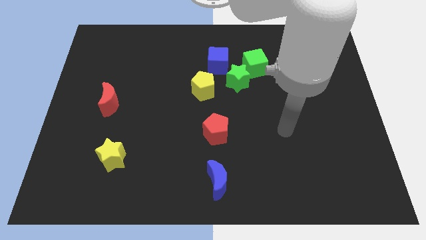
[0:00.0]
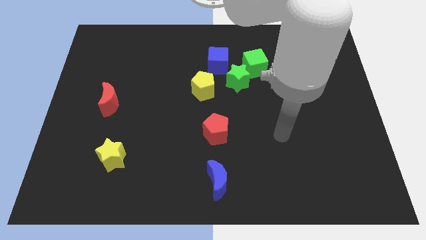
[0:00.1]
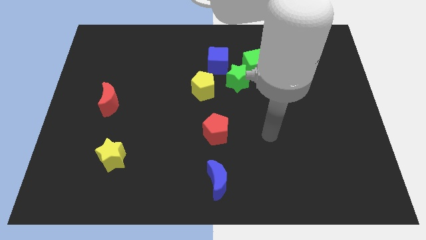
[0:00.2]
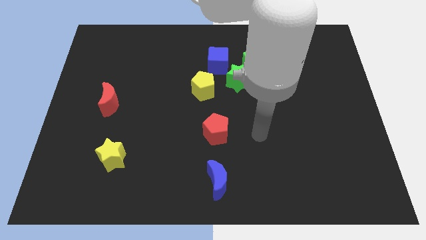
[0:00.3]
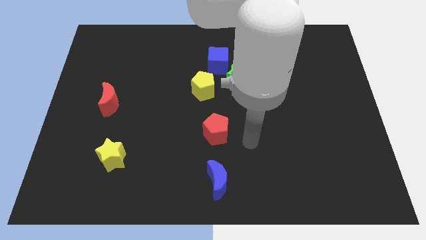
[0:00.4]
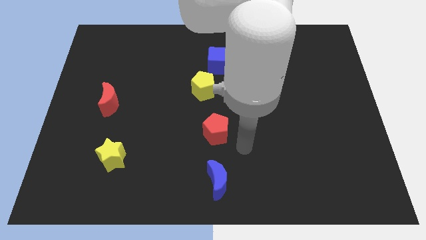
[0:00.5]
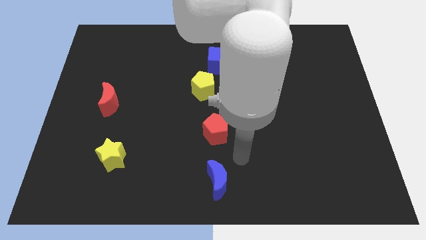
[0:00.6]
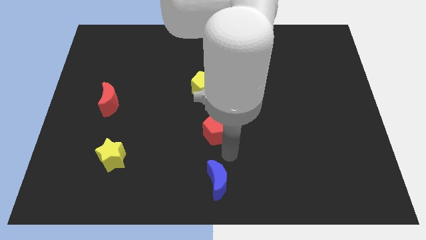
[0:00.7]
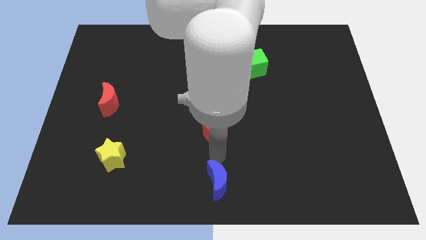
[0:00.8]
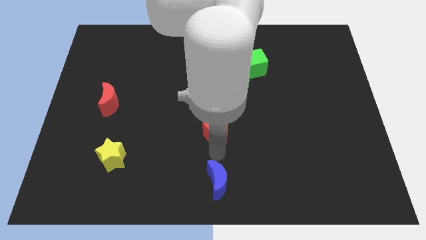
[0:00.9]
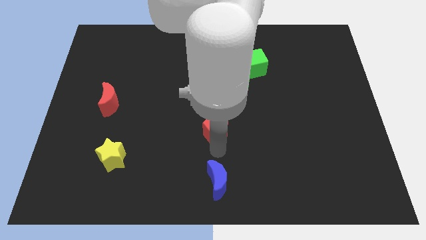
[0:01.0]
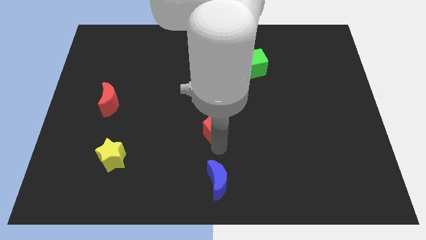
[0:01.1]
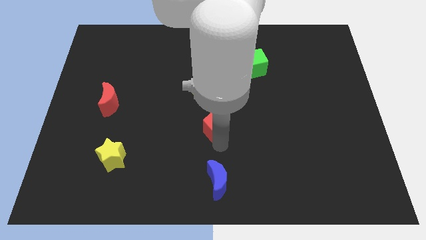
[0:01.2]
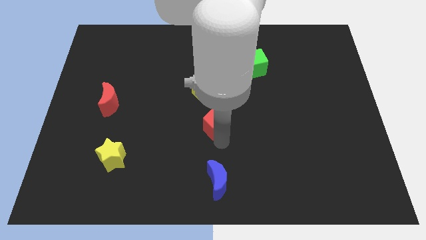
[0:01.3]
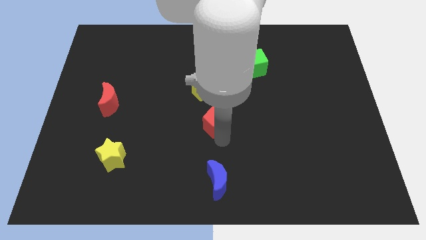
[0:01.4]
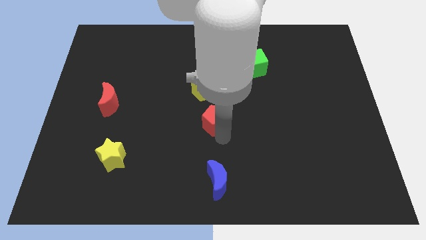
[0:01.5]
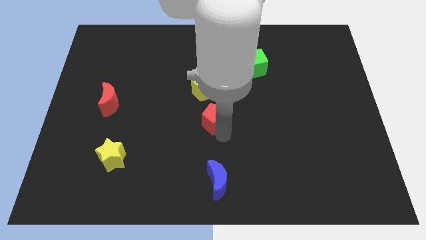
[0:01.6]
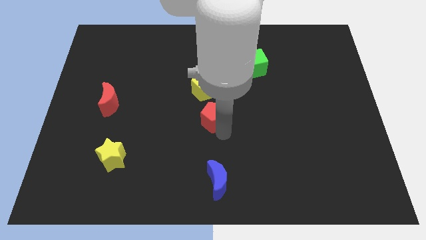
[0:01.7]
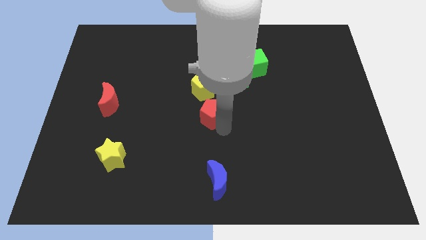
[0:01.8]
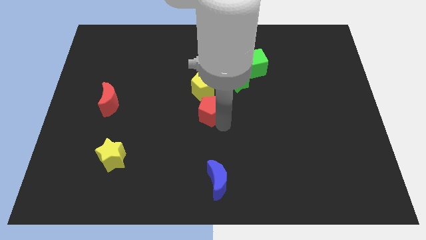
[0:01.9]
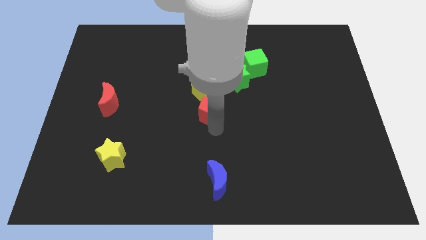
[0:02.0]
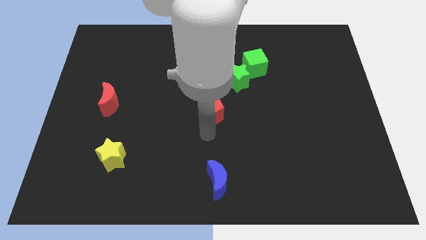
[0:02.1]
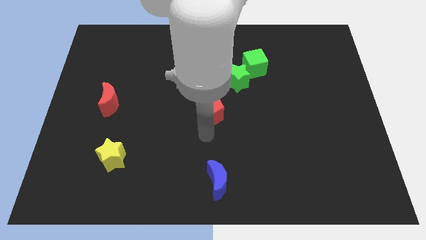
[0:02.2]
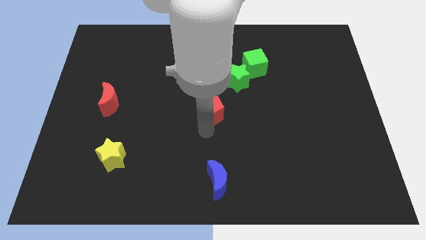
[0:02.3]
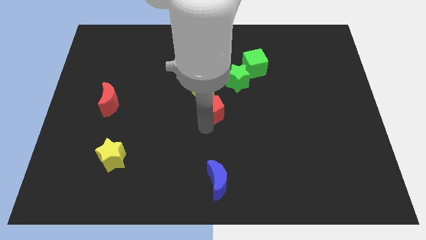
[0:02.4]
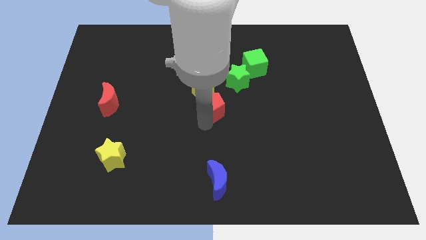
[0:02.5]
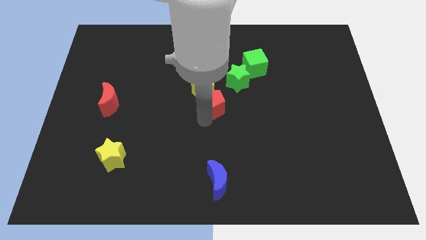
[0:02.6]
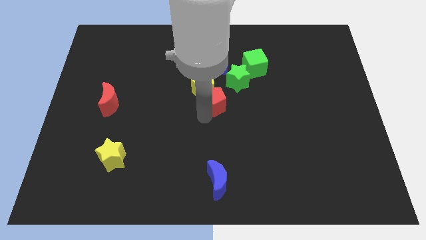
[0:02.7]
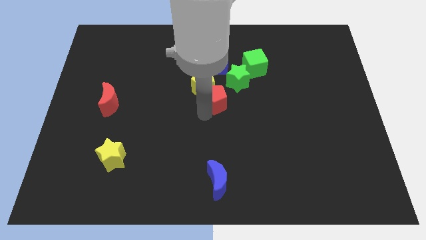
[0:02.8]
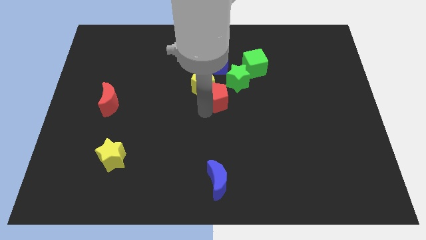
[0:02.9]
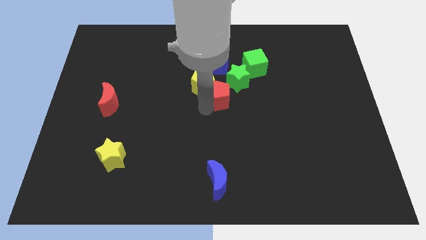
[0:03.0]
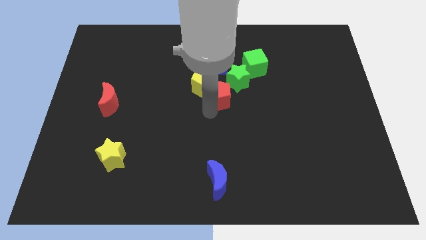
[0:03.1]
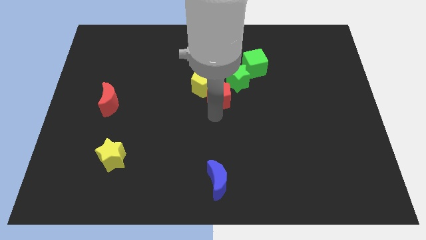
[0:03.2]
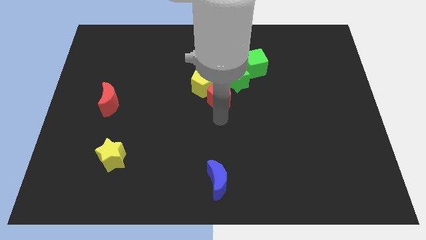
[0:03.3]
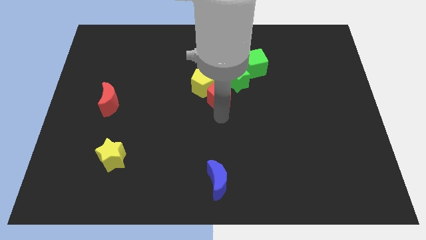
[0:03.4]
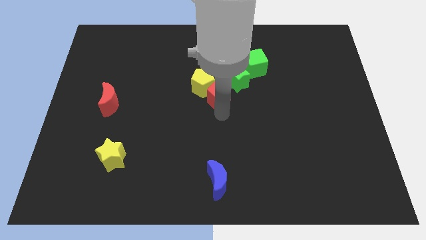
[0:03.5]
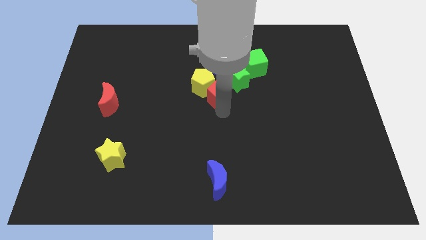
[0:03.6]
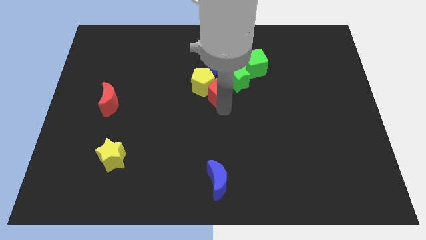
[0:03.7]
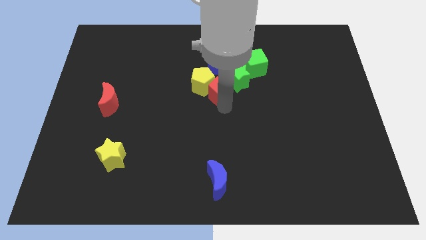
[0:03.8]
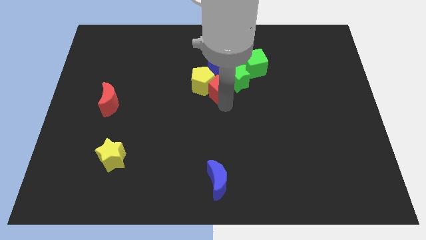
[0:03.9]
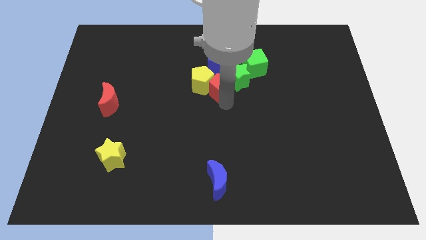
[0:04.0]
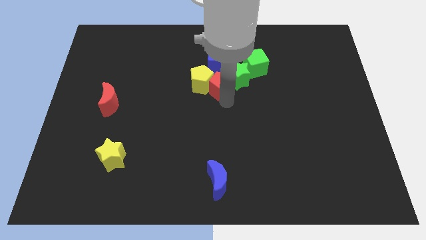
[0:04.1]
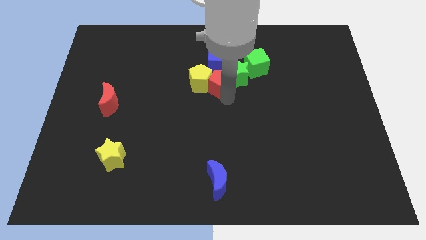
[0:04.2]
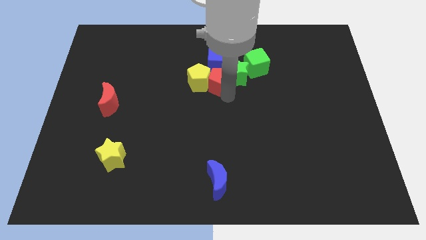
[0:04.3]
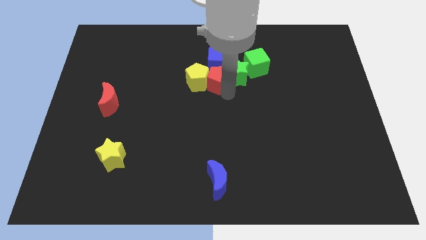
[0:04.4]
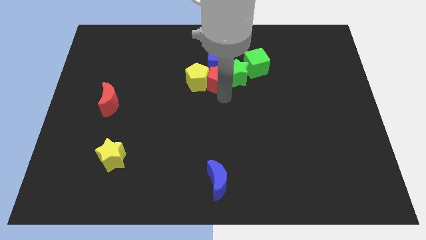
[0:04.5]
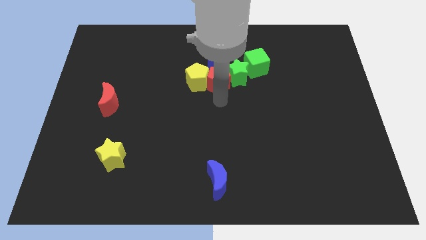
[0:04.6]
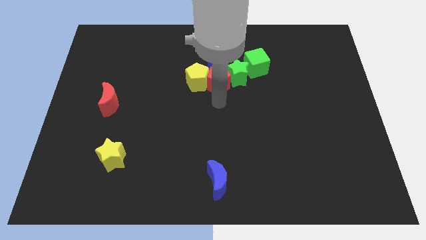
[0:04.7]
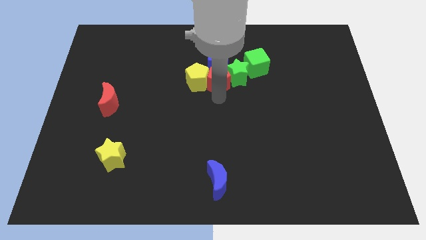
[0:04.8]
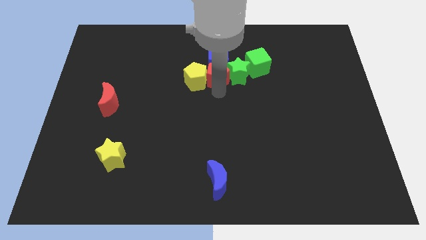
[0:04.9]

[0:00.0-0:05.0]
put the red pentagon close to the blue cube

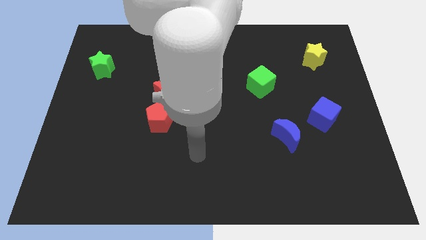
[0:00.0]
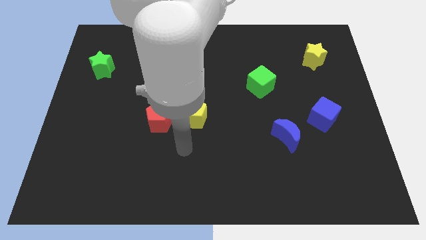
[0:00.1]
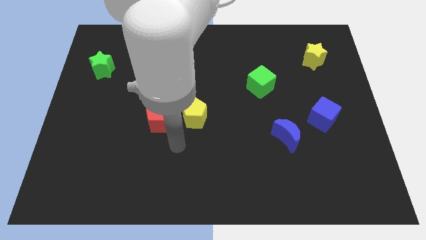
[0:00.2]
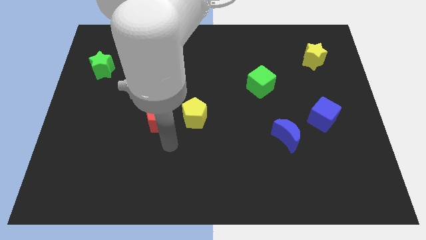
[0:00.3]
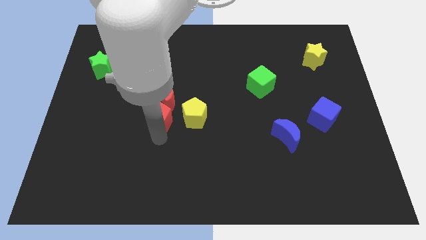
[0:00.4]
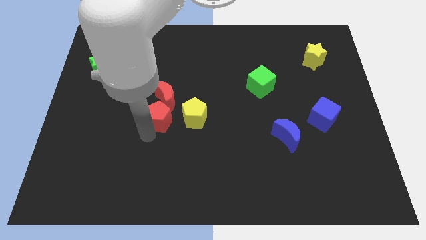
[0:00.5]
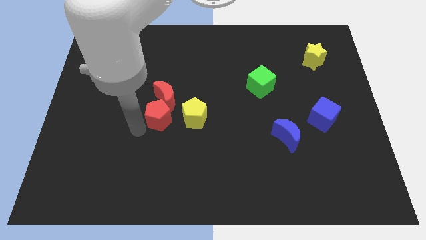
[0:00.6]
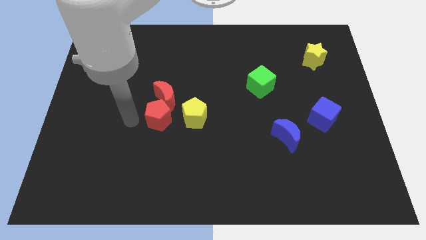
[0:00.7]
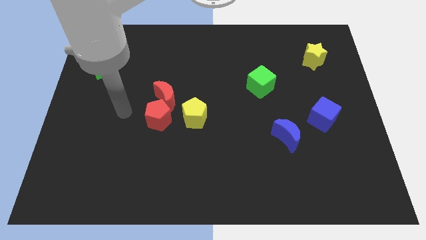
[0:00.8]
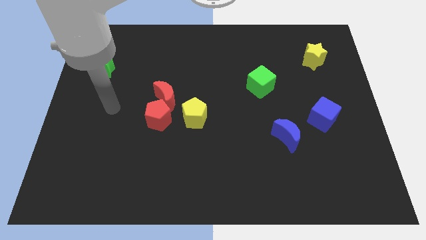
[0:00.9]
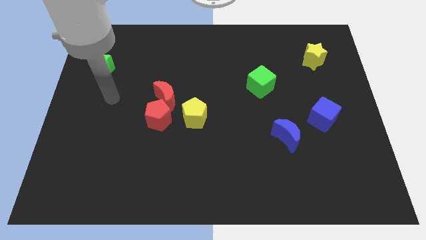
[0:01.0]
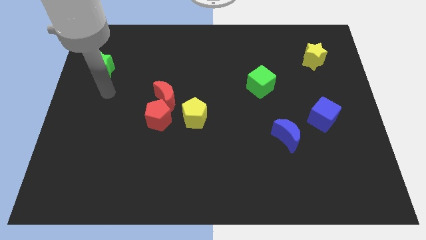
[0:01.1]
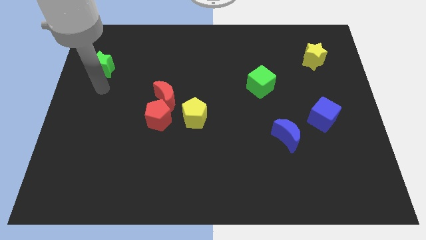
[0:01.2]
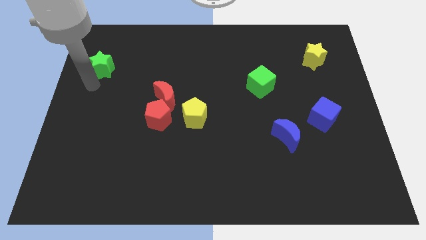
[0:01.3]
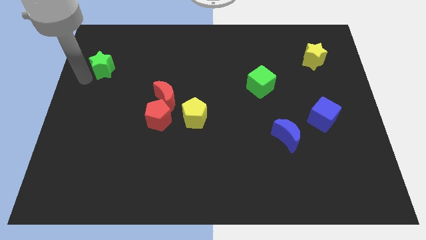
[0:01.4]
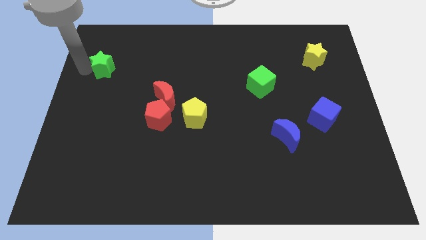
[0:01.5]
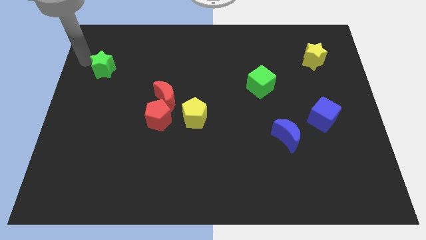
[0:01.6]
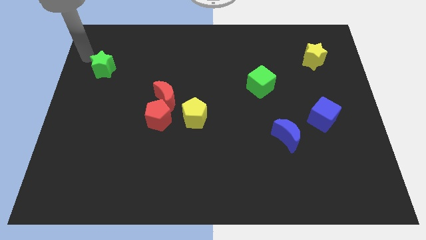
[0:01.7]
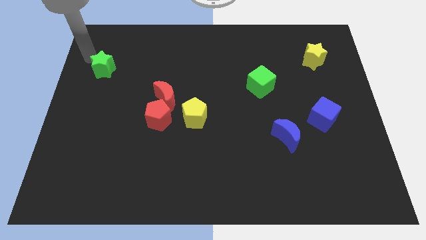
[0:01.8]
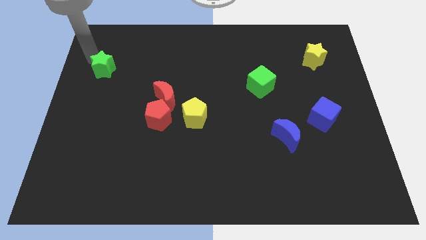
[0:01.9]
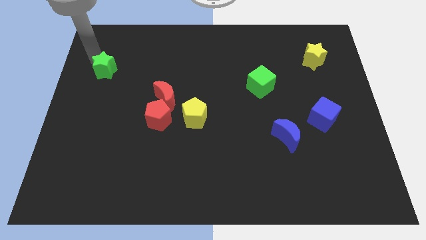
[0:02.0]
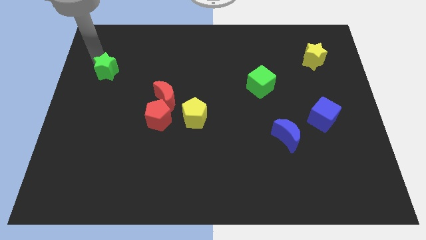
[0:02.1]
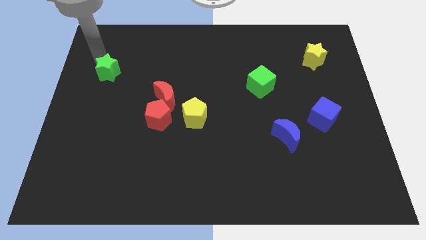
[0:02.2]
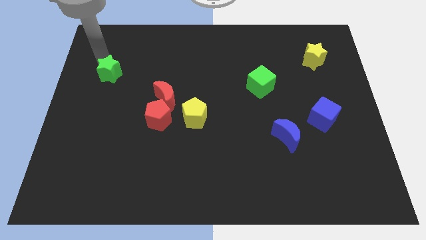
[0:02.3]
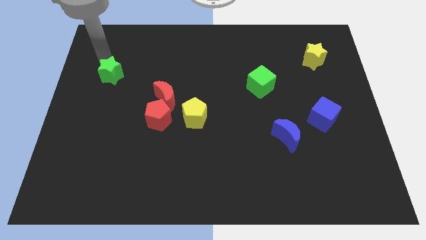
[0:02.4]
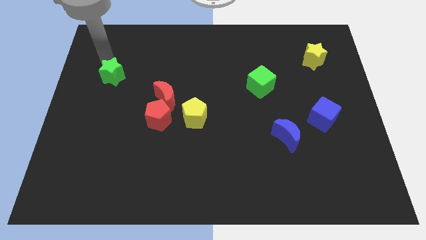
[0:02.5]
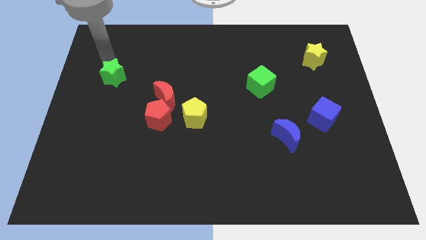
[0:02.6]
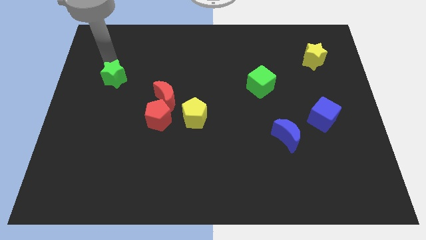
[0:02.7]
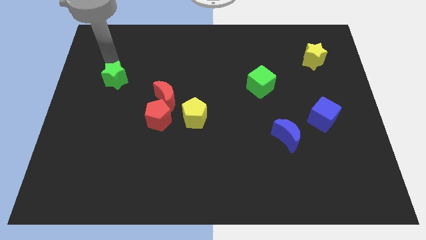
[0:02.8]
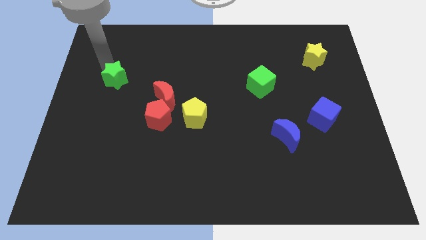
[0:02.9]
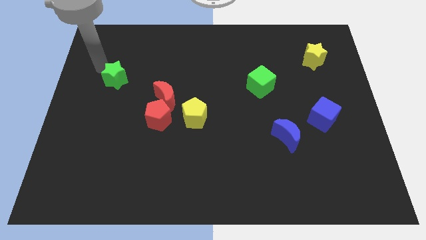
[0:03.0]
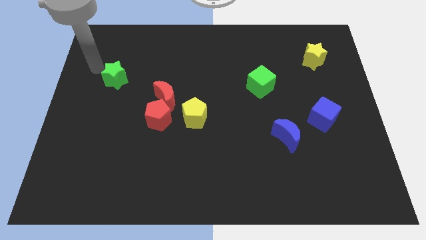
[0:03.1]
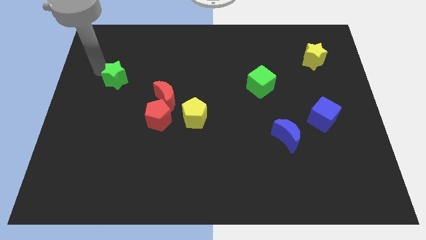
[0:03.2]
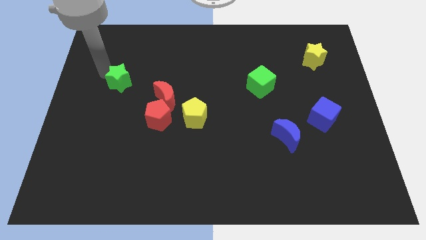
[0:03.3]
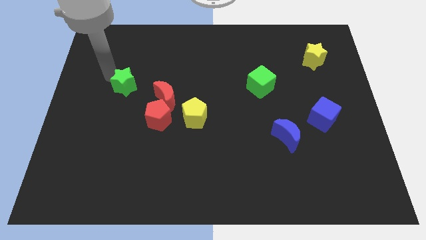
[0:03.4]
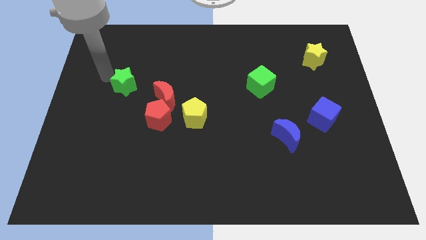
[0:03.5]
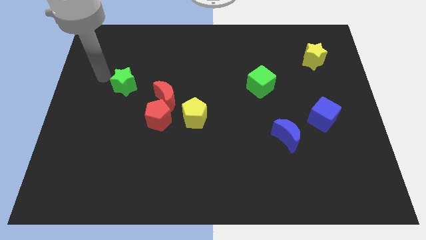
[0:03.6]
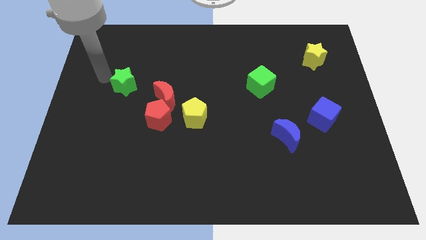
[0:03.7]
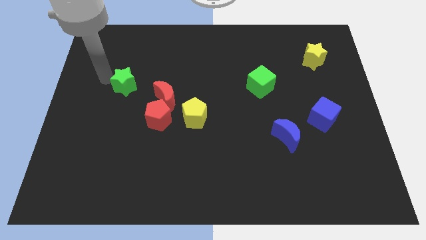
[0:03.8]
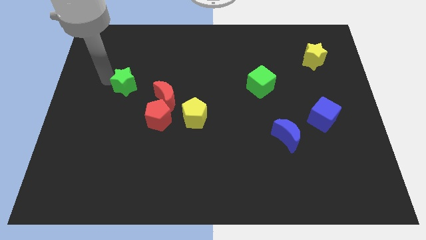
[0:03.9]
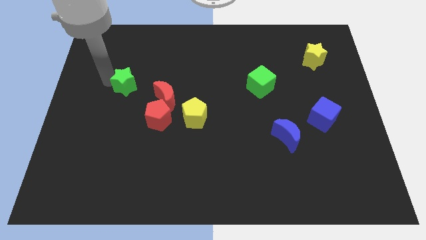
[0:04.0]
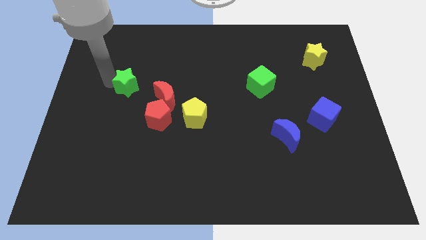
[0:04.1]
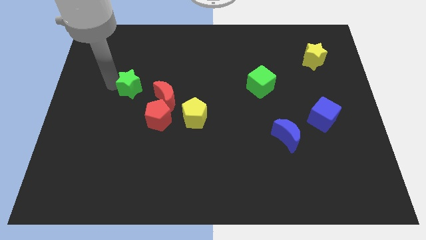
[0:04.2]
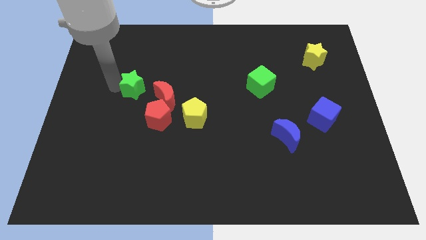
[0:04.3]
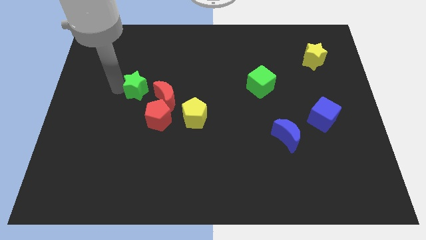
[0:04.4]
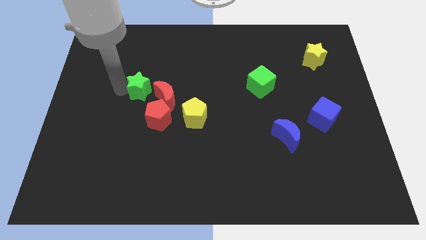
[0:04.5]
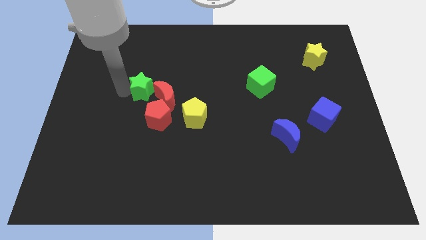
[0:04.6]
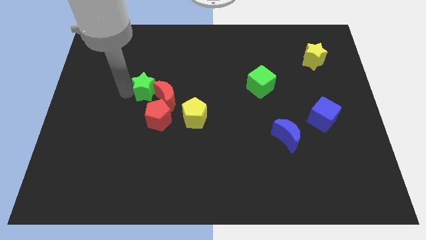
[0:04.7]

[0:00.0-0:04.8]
push the green star close to the red moon
